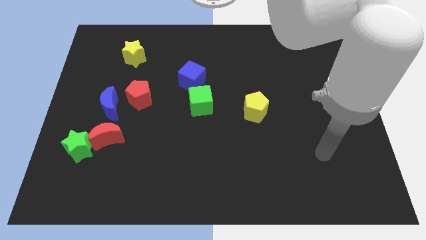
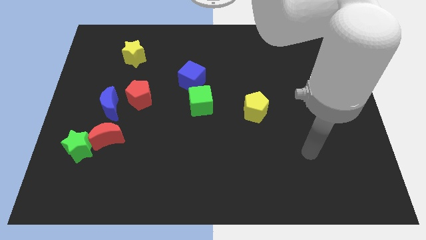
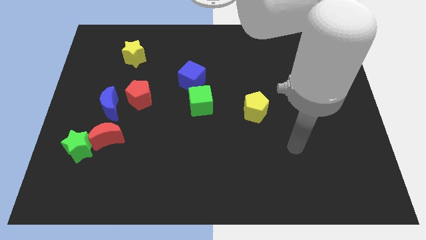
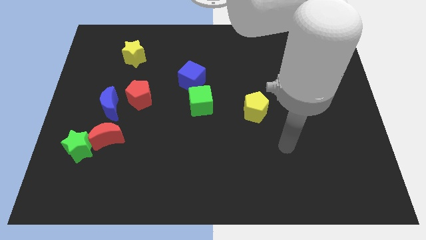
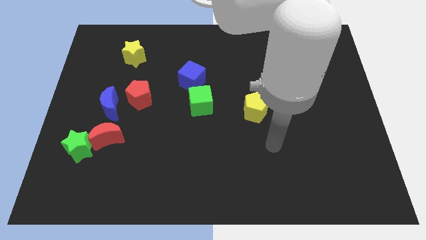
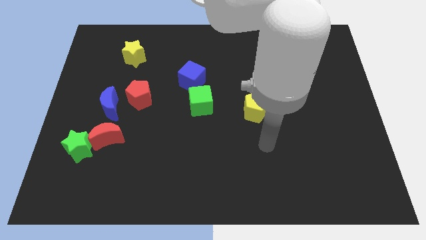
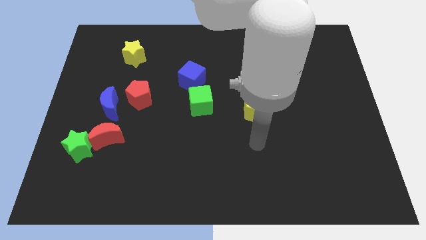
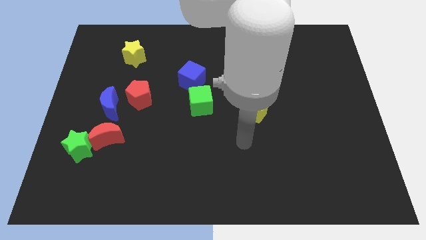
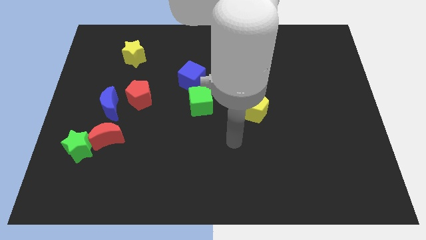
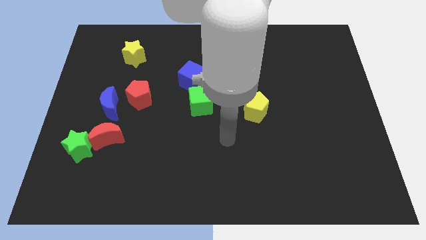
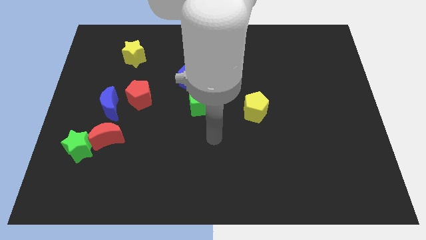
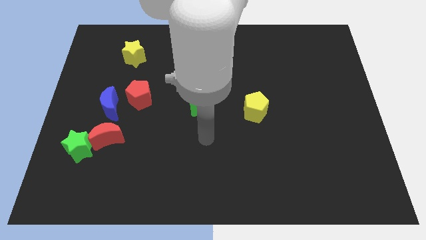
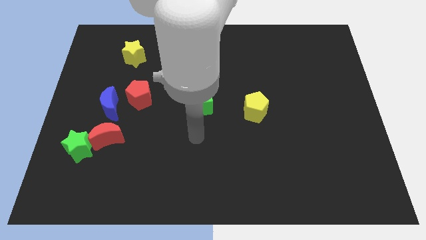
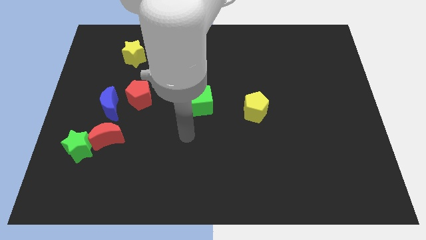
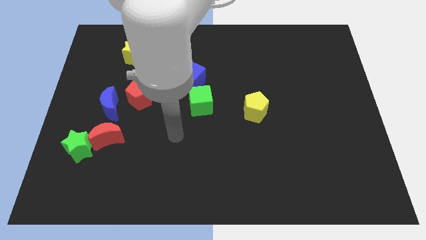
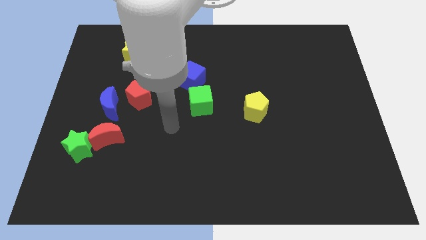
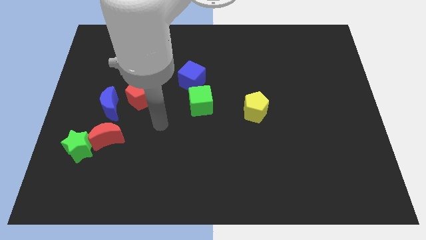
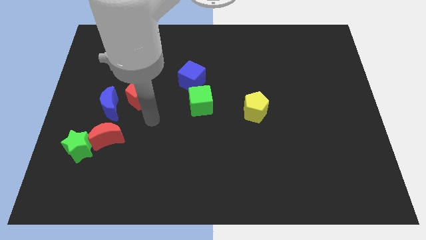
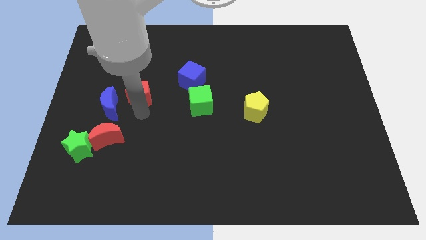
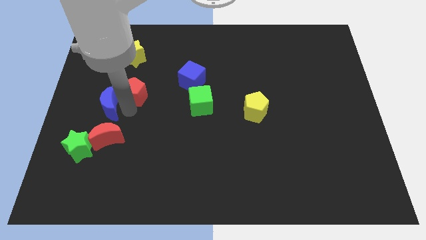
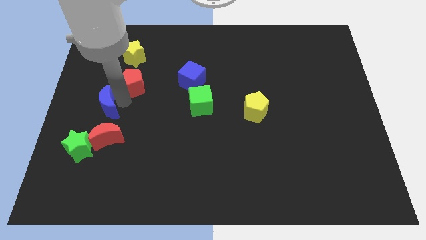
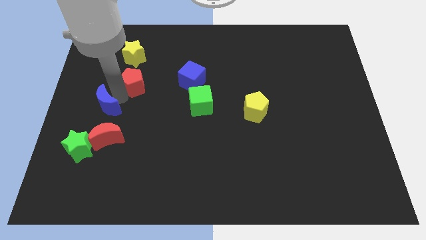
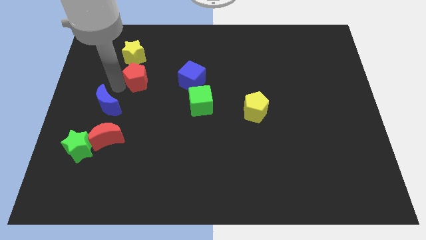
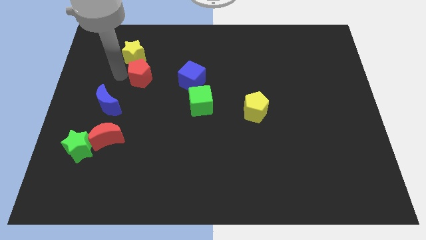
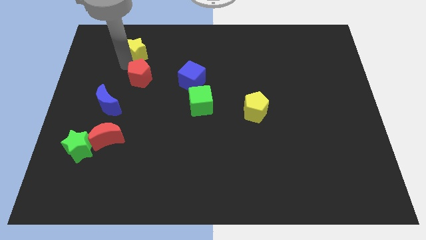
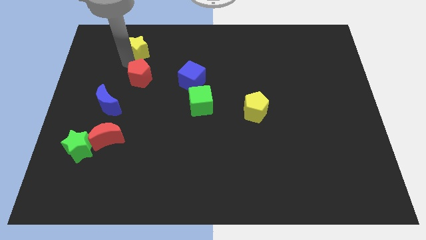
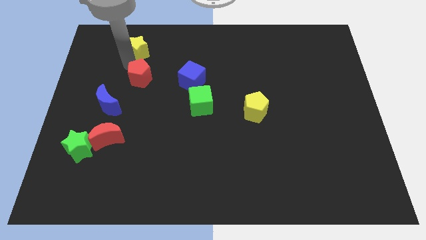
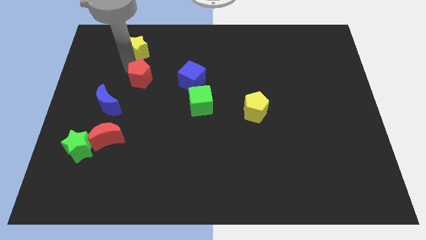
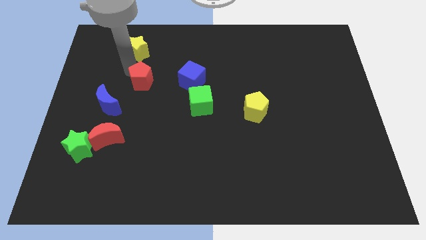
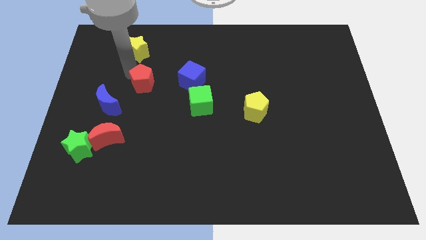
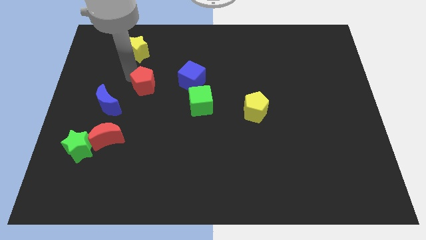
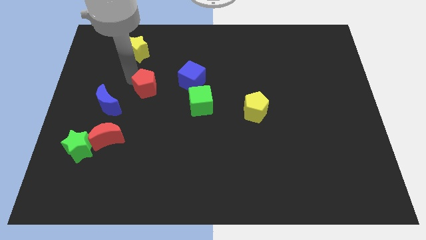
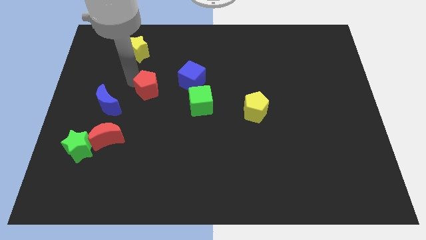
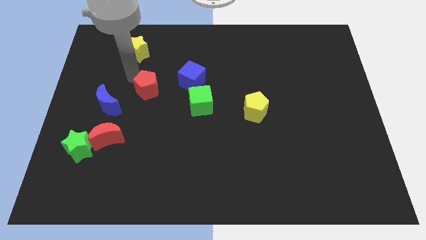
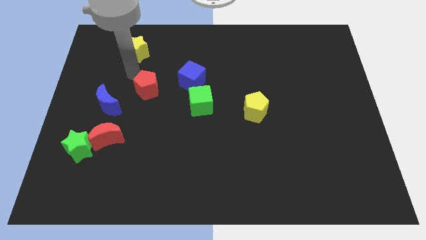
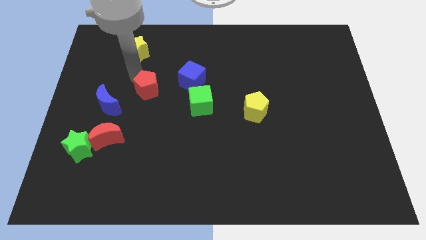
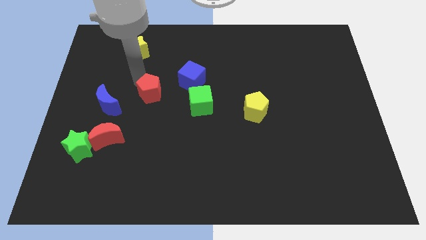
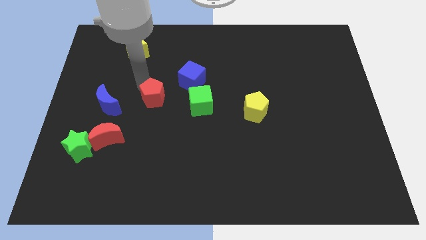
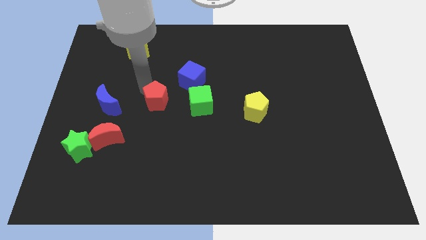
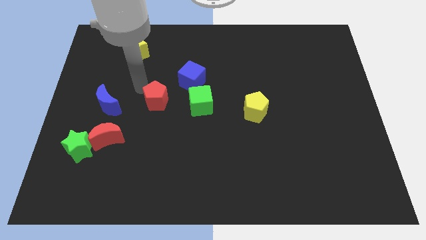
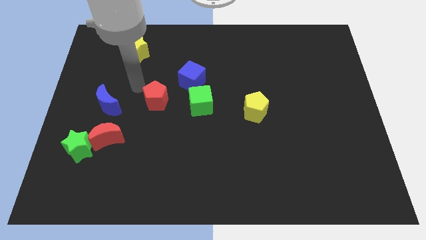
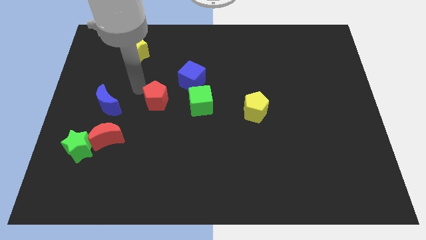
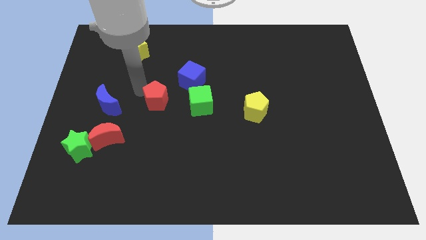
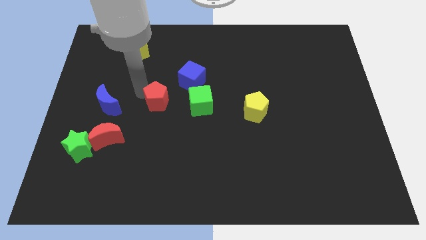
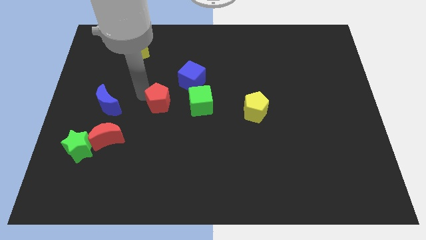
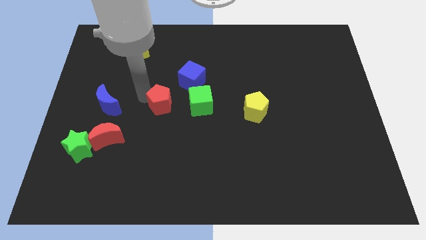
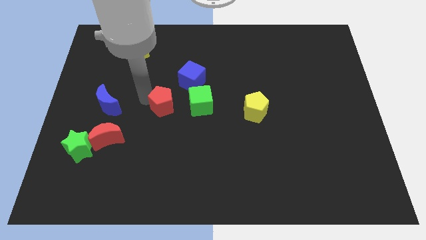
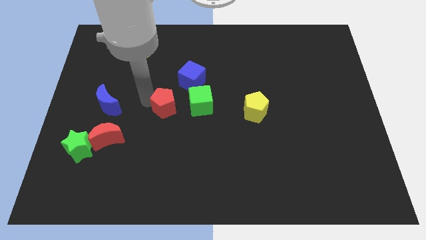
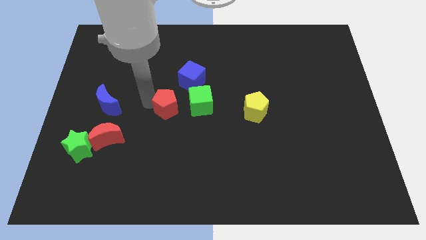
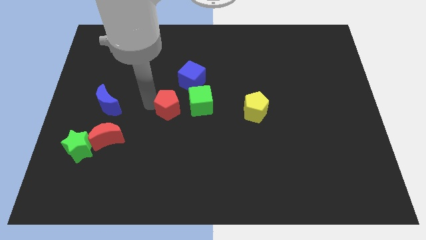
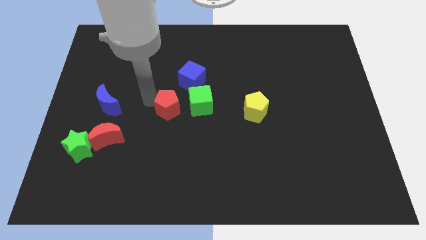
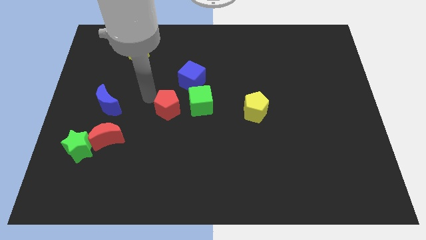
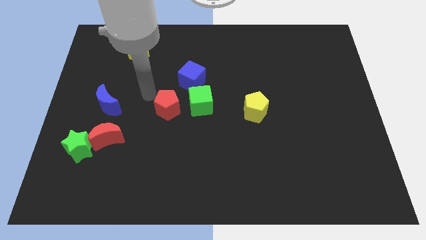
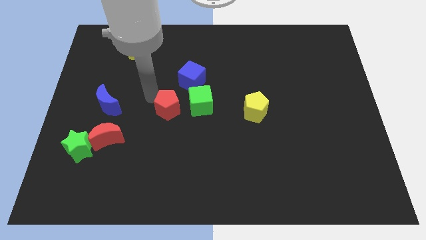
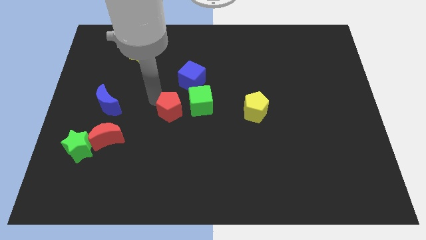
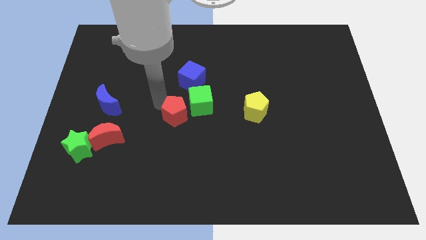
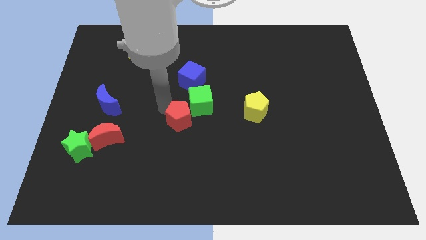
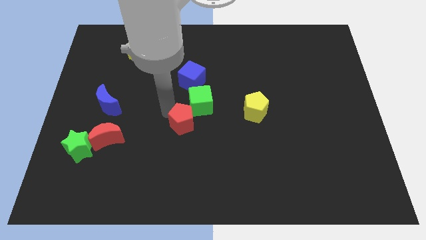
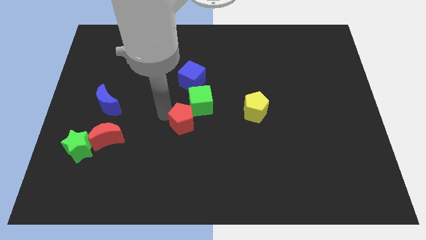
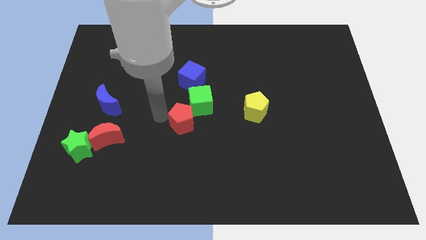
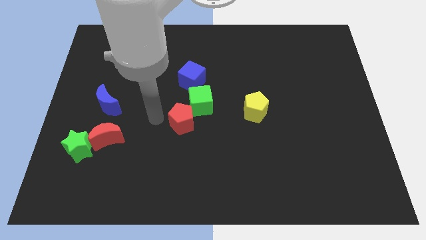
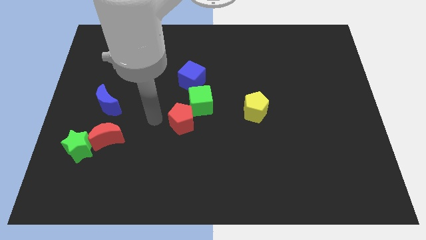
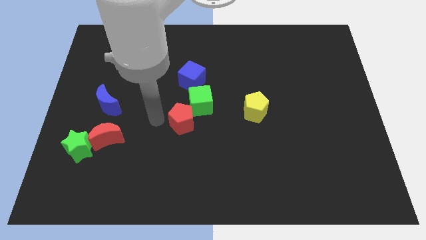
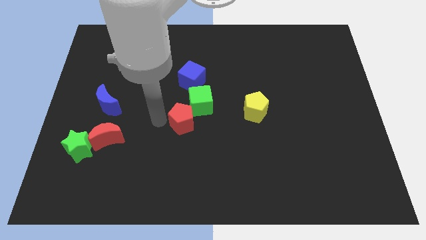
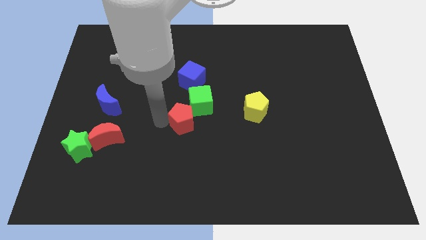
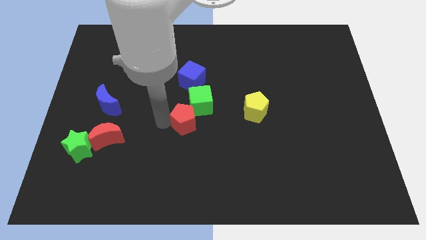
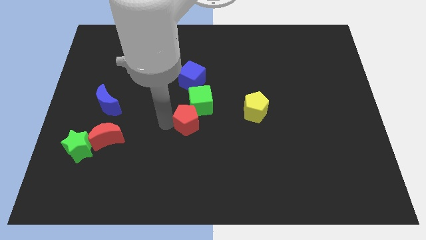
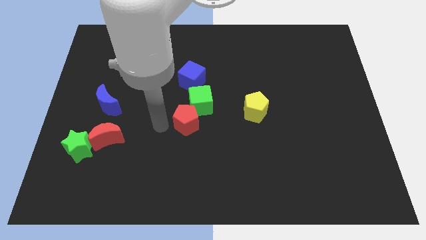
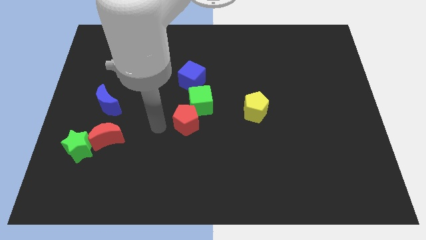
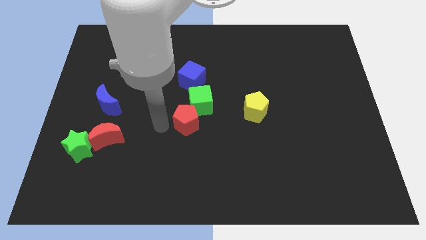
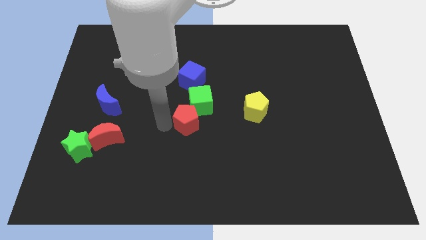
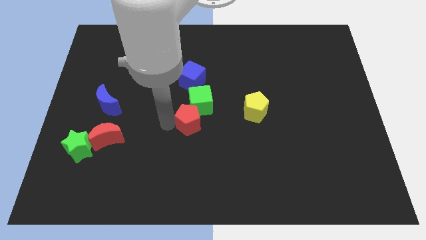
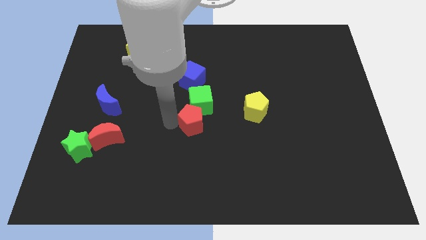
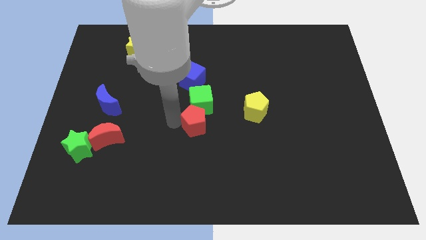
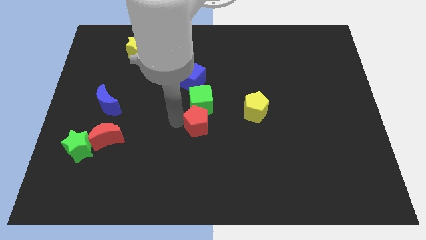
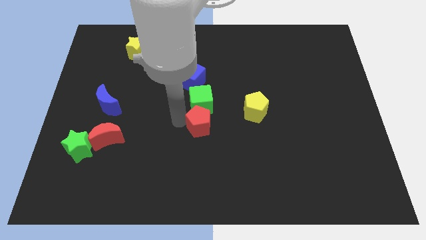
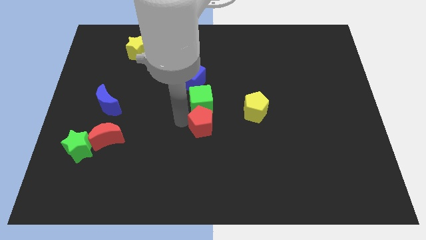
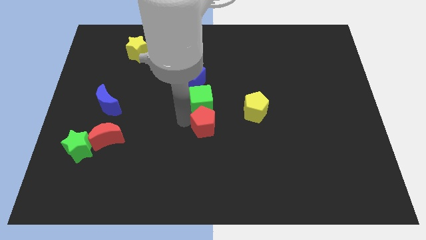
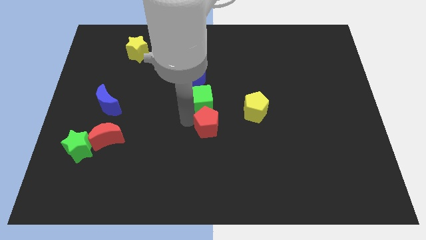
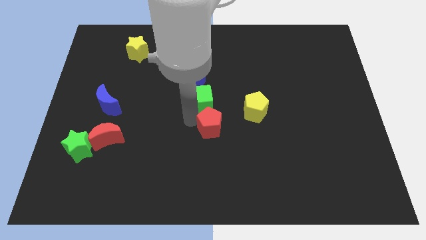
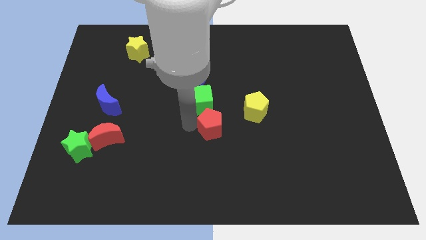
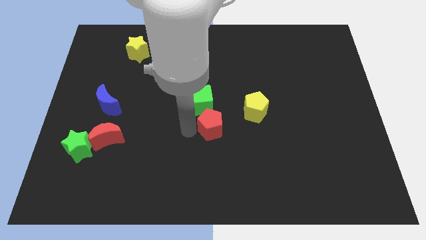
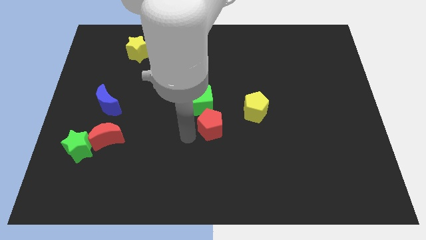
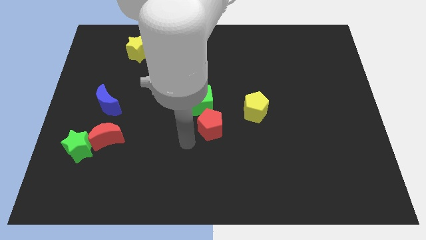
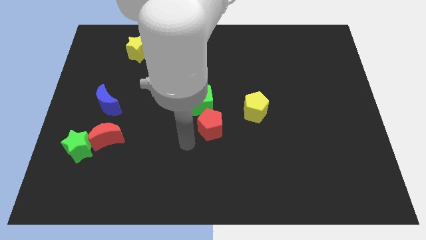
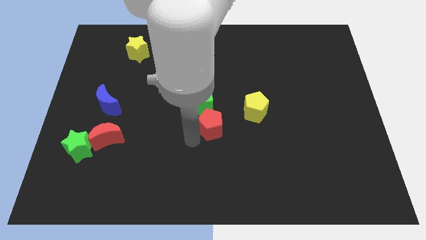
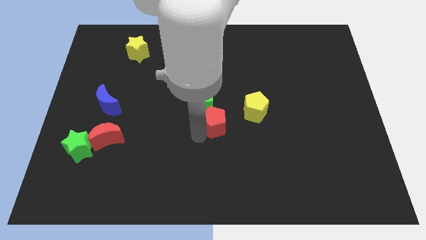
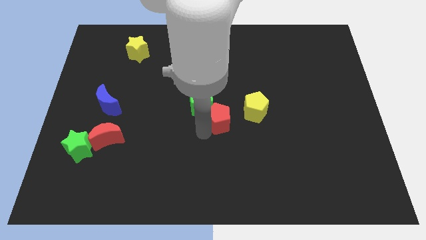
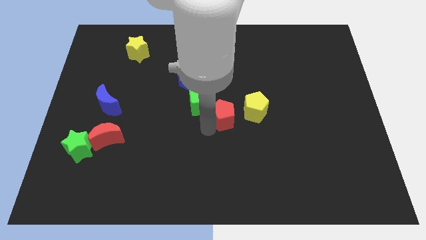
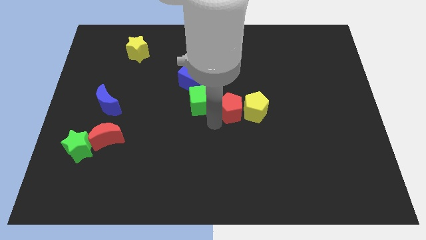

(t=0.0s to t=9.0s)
move the red pentagon next to the yellow pentagon
